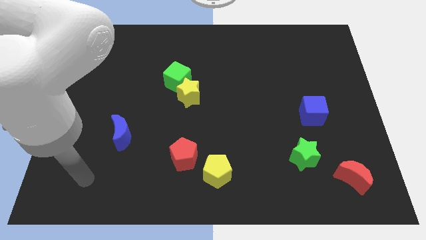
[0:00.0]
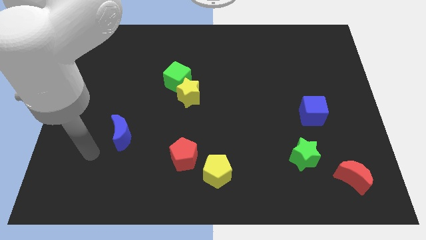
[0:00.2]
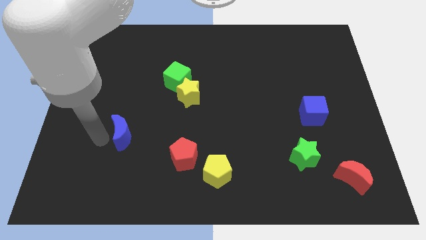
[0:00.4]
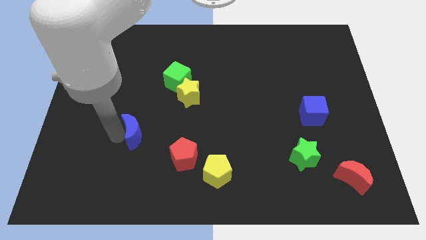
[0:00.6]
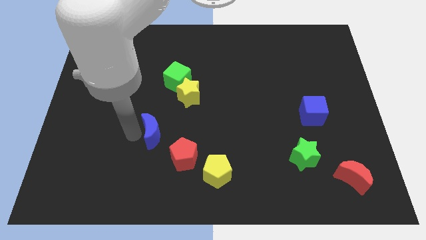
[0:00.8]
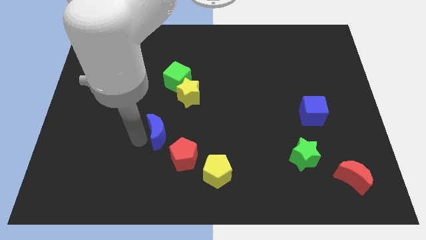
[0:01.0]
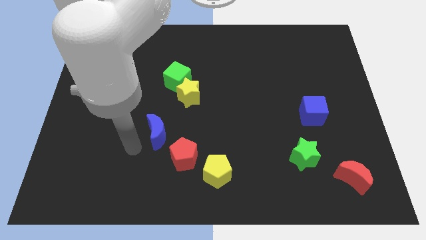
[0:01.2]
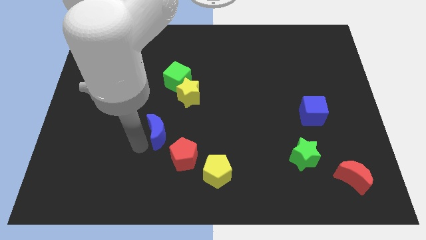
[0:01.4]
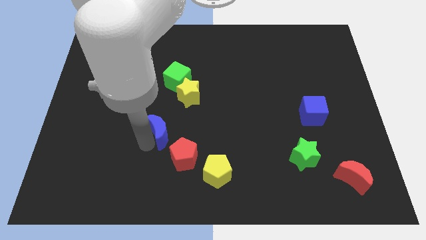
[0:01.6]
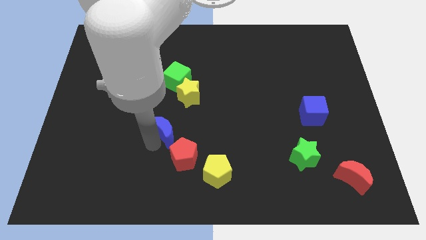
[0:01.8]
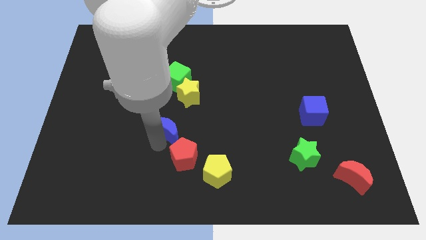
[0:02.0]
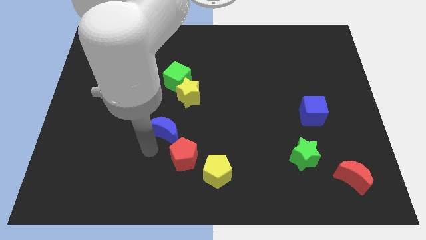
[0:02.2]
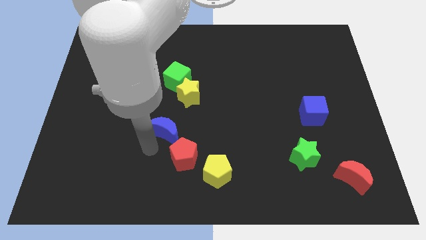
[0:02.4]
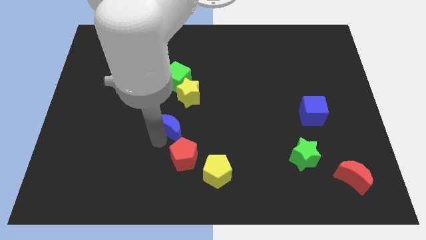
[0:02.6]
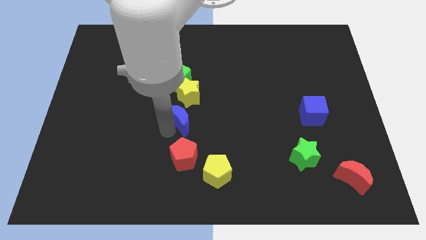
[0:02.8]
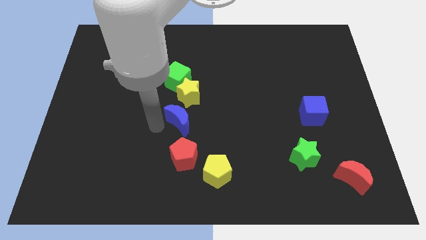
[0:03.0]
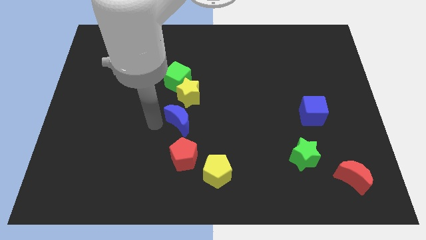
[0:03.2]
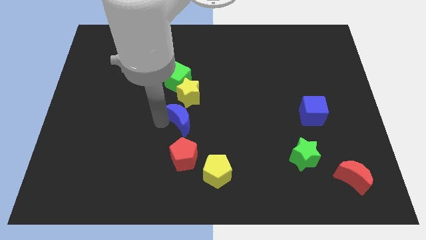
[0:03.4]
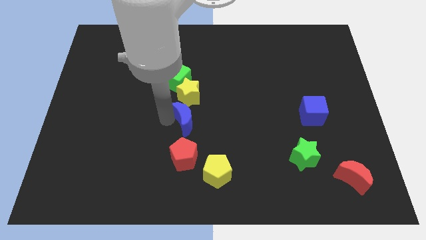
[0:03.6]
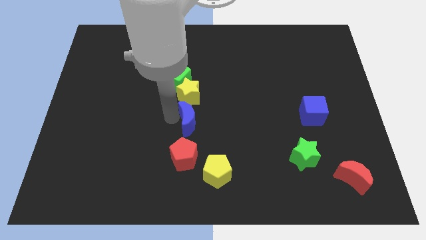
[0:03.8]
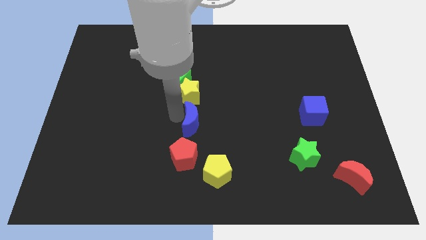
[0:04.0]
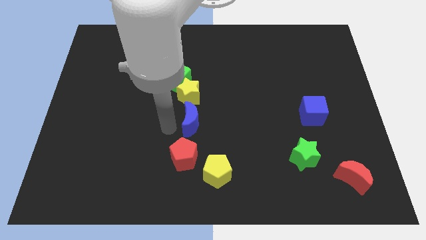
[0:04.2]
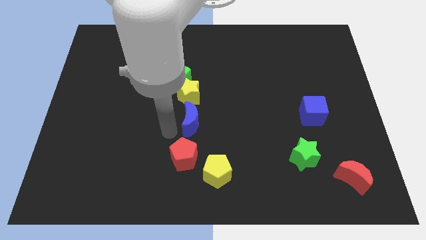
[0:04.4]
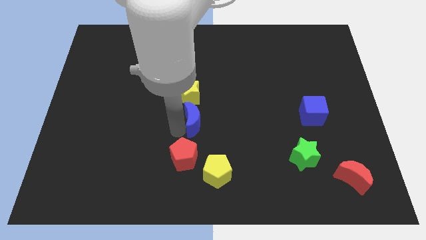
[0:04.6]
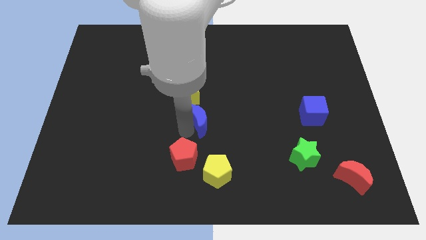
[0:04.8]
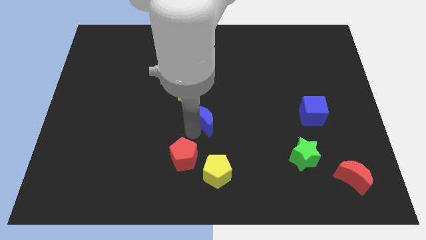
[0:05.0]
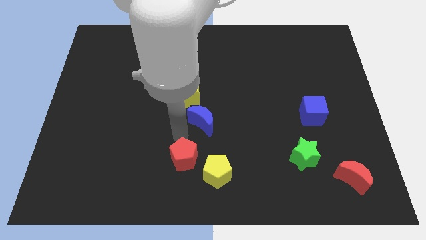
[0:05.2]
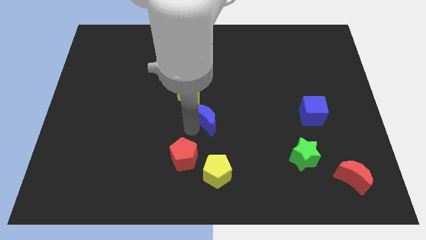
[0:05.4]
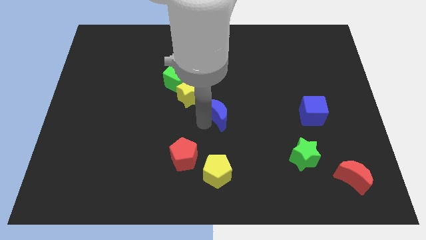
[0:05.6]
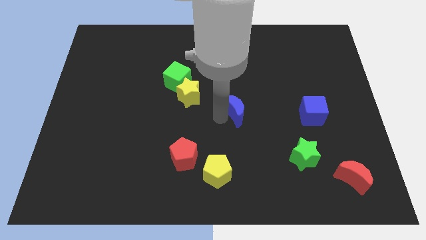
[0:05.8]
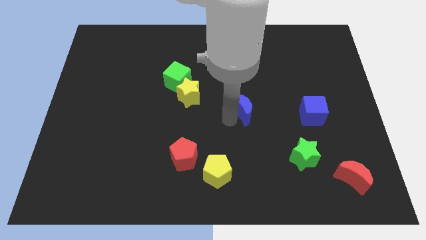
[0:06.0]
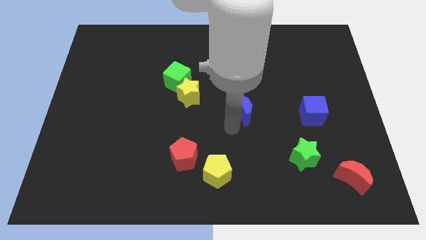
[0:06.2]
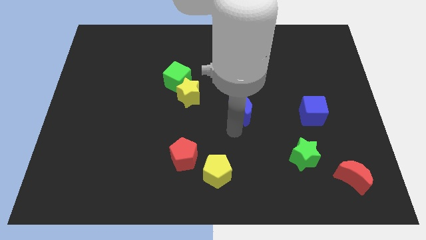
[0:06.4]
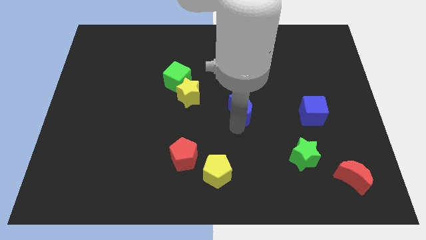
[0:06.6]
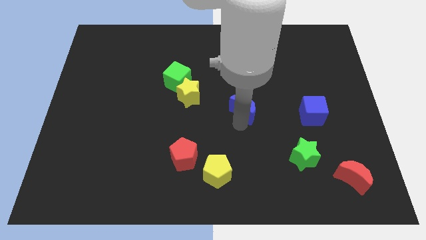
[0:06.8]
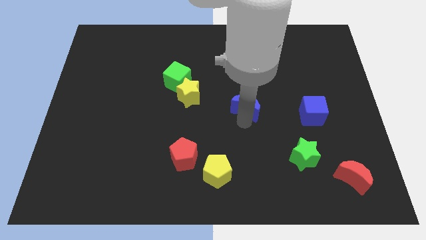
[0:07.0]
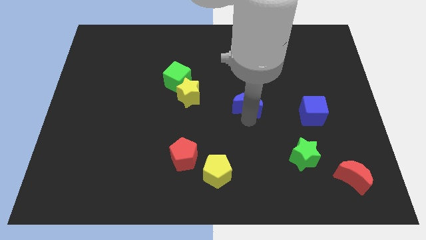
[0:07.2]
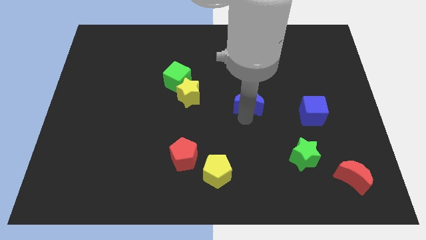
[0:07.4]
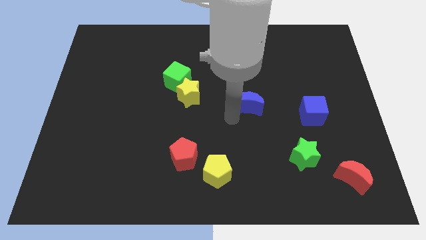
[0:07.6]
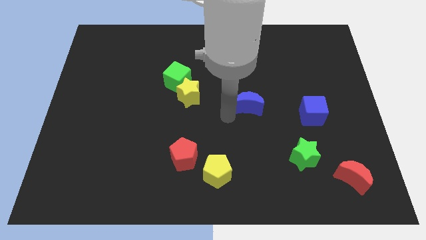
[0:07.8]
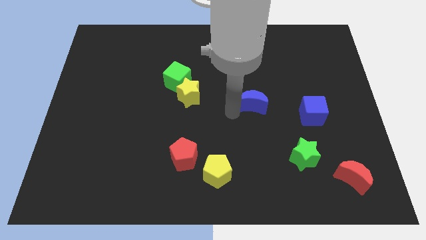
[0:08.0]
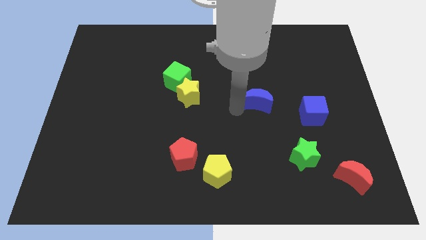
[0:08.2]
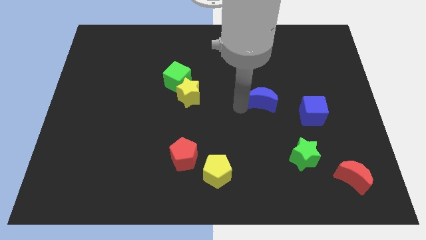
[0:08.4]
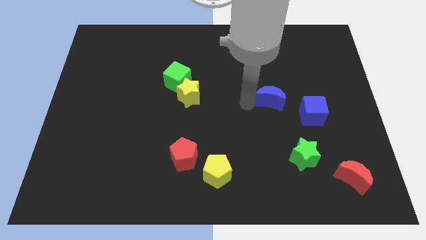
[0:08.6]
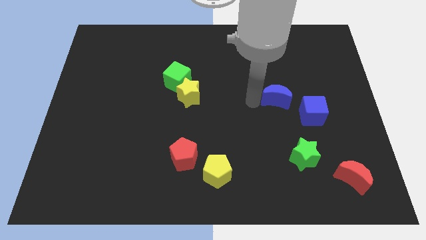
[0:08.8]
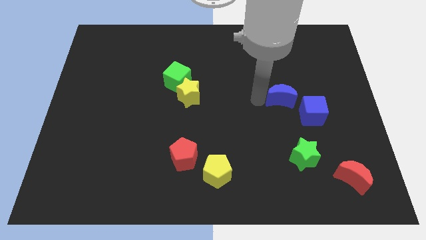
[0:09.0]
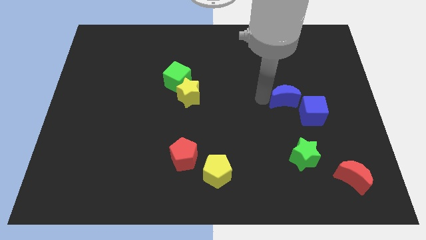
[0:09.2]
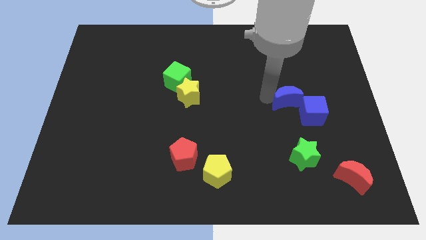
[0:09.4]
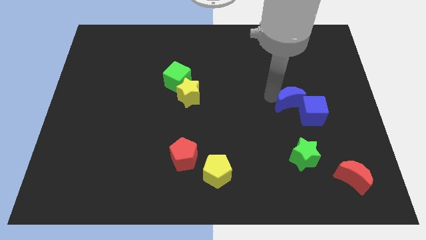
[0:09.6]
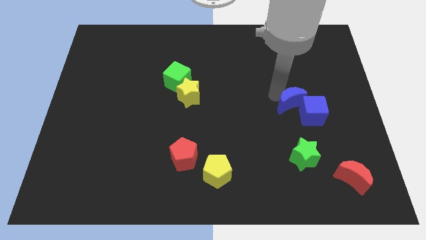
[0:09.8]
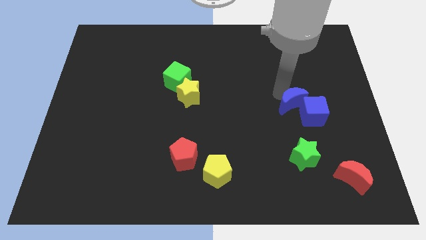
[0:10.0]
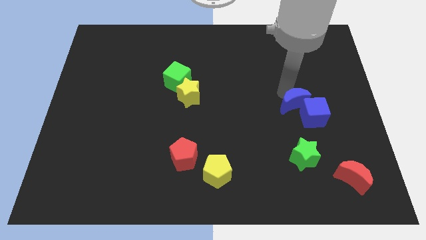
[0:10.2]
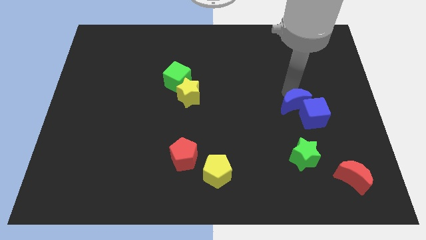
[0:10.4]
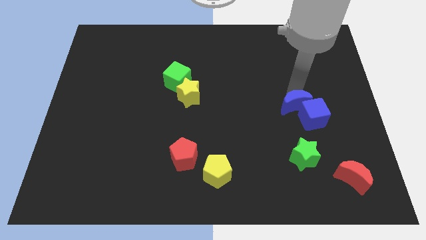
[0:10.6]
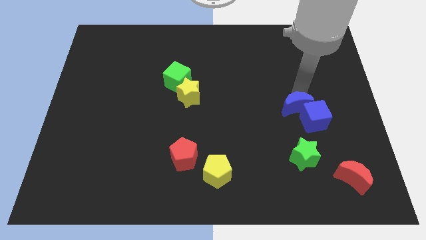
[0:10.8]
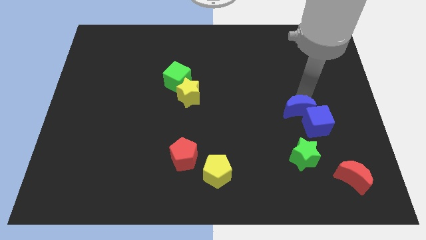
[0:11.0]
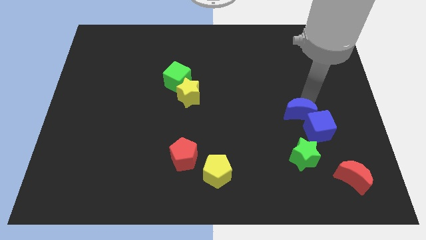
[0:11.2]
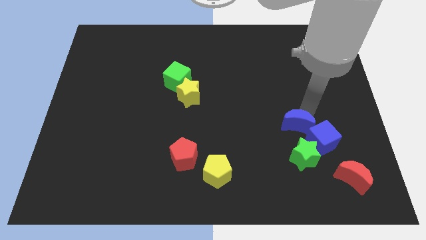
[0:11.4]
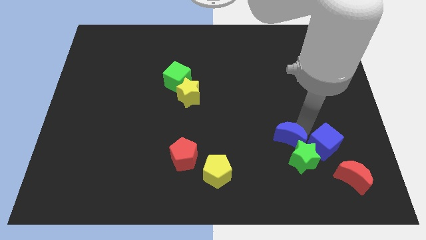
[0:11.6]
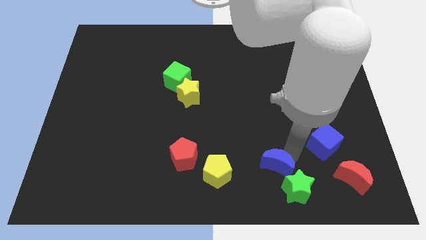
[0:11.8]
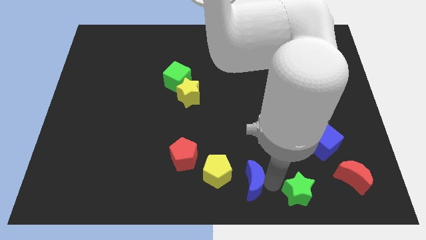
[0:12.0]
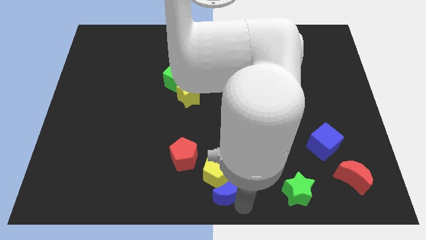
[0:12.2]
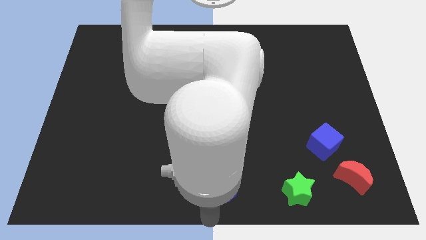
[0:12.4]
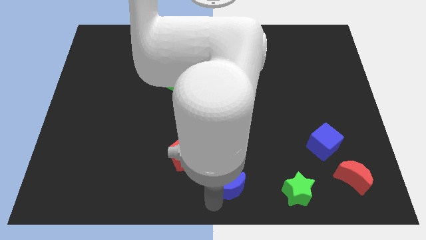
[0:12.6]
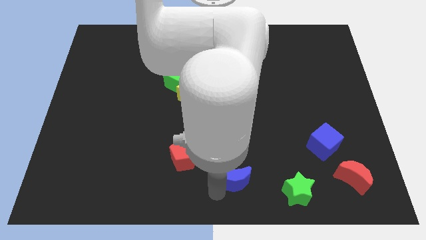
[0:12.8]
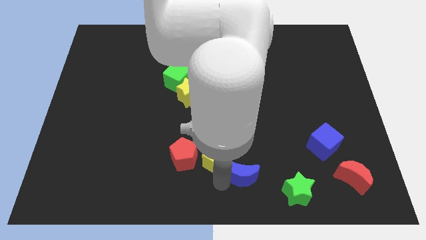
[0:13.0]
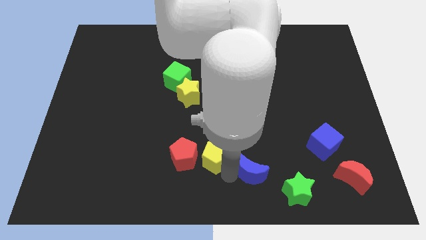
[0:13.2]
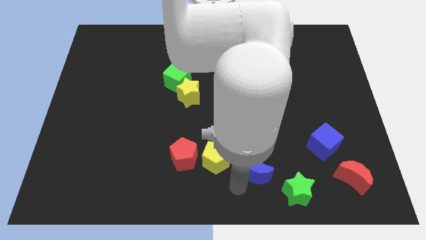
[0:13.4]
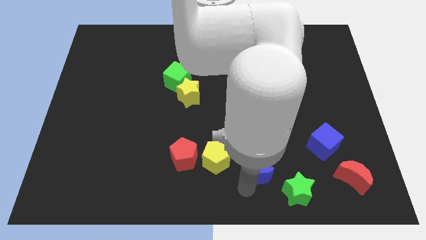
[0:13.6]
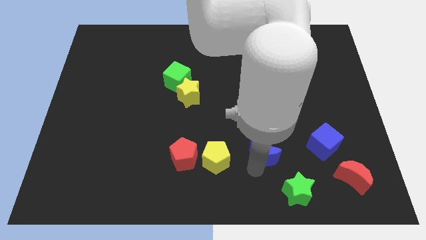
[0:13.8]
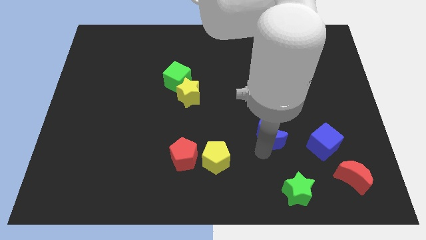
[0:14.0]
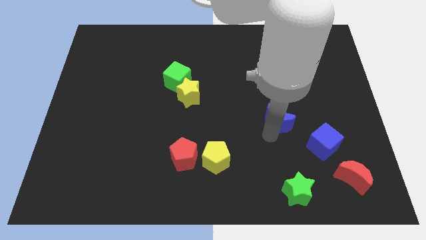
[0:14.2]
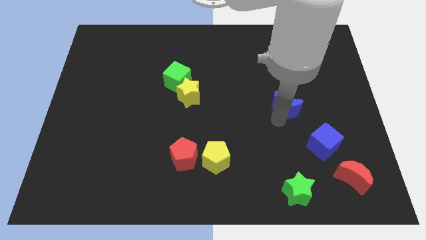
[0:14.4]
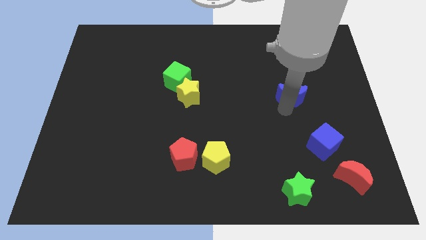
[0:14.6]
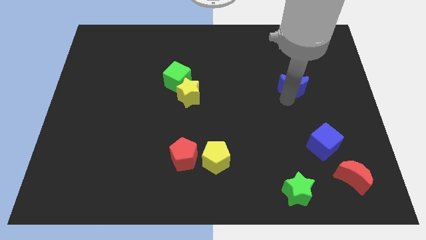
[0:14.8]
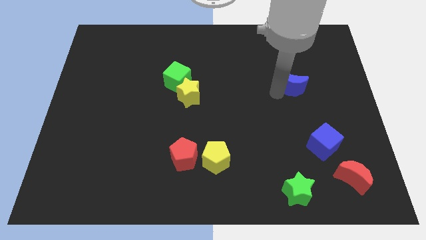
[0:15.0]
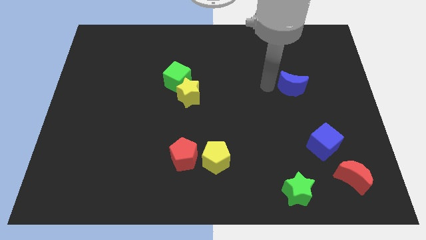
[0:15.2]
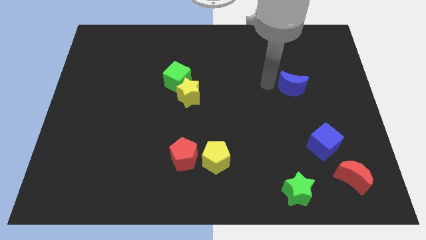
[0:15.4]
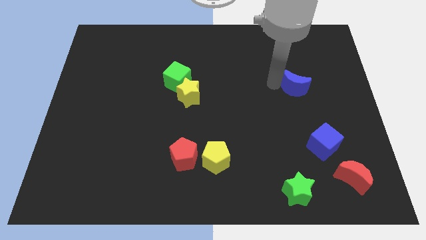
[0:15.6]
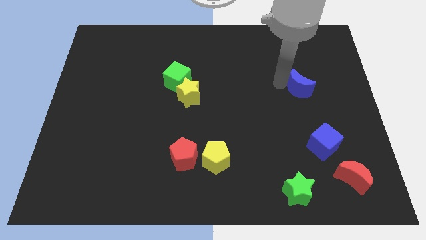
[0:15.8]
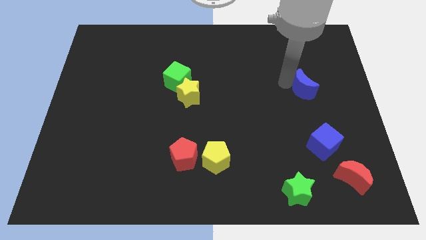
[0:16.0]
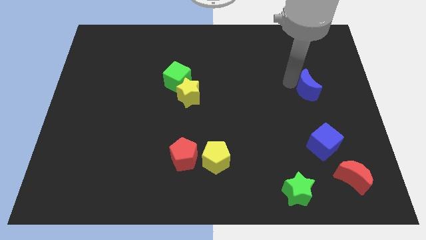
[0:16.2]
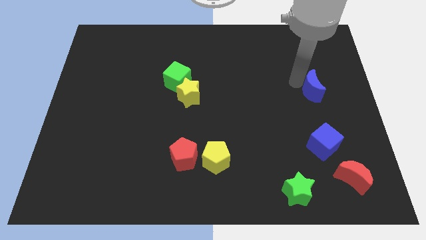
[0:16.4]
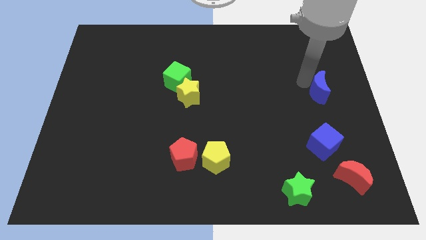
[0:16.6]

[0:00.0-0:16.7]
move the blue moon to the right side of the board
